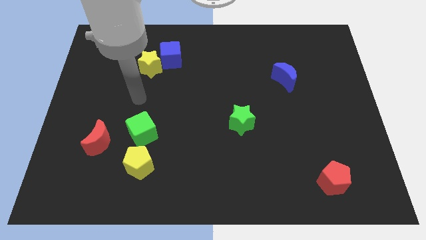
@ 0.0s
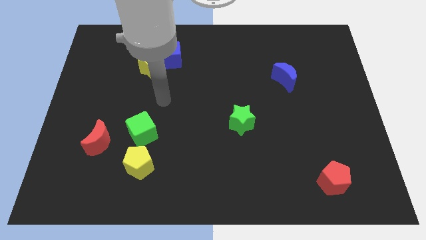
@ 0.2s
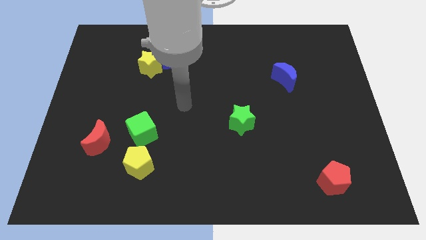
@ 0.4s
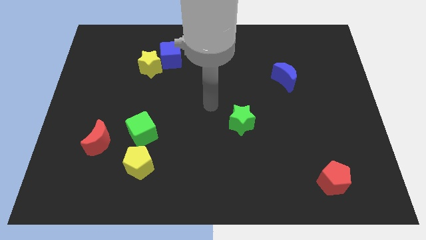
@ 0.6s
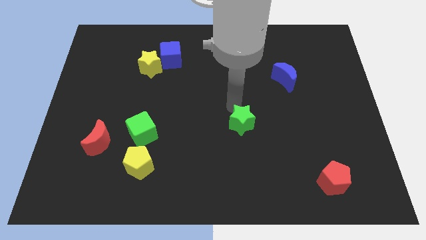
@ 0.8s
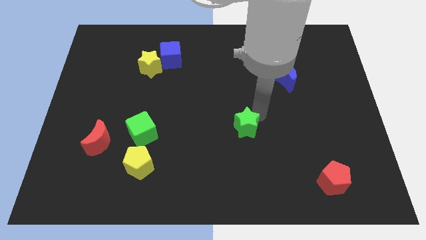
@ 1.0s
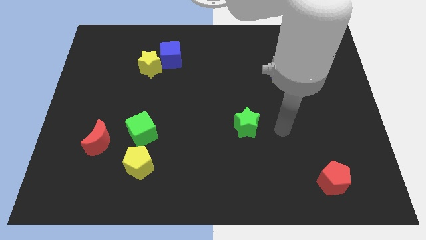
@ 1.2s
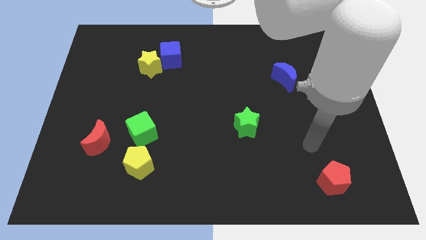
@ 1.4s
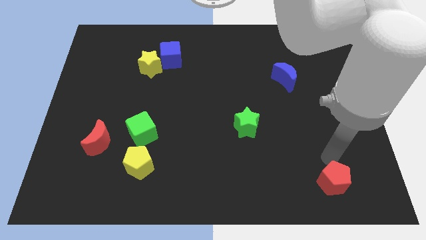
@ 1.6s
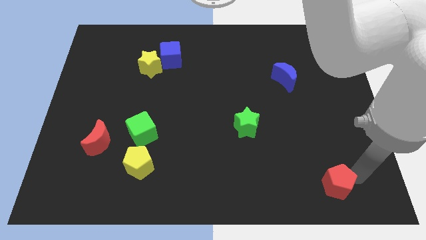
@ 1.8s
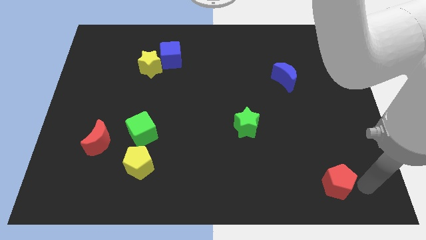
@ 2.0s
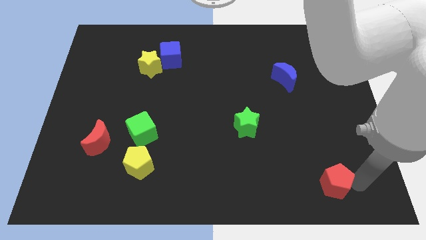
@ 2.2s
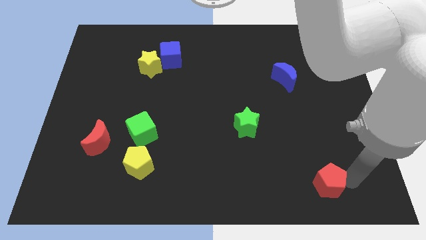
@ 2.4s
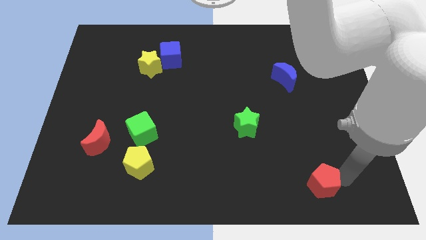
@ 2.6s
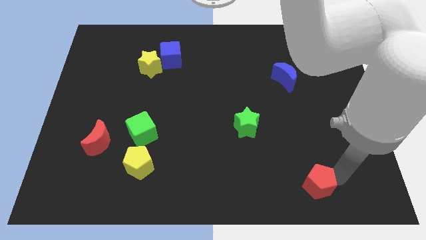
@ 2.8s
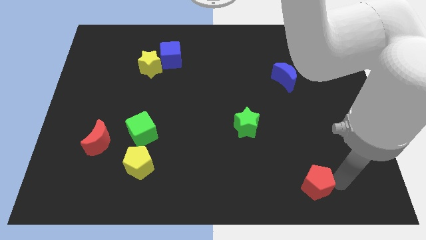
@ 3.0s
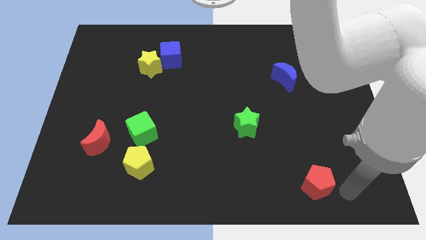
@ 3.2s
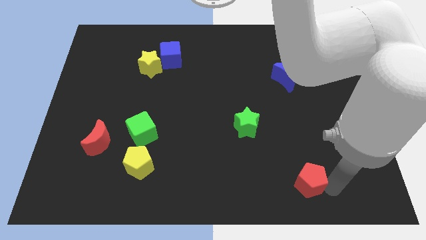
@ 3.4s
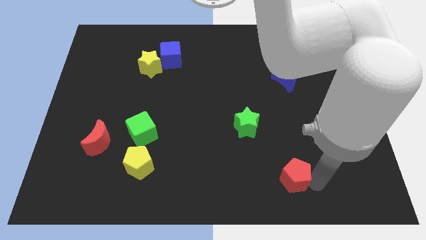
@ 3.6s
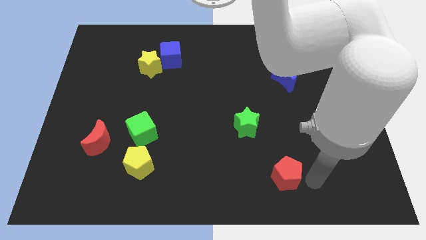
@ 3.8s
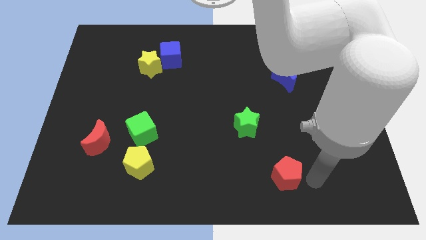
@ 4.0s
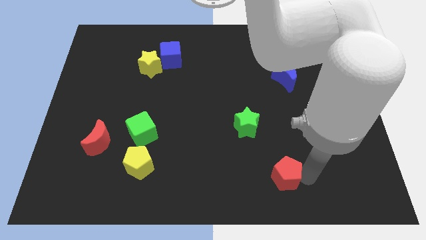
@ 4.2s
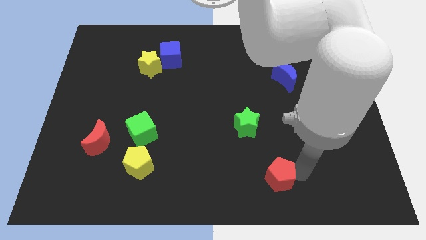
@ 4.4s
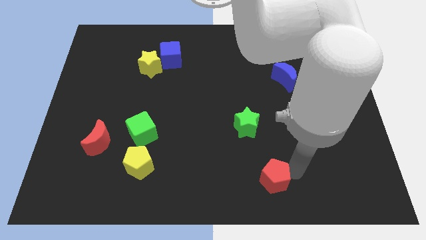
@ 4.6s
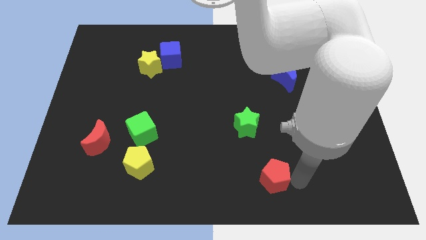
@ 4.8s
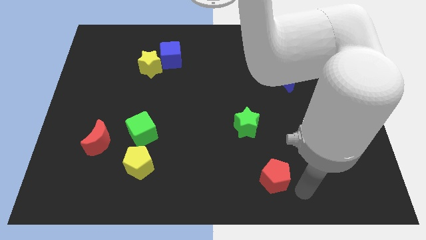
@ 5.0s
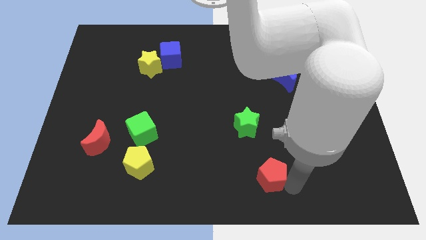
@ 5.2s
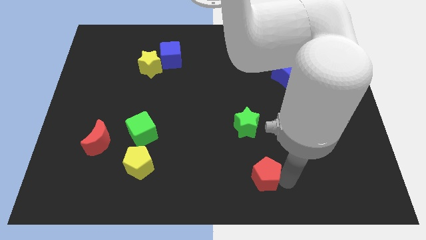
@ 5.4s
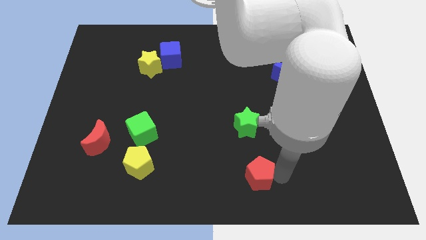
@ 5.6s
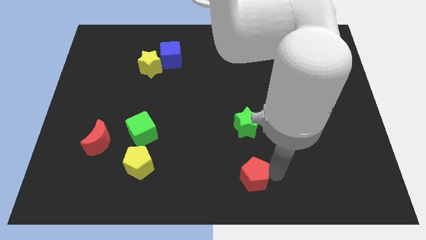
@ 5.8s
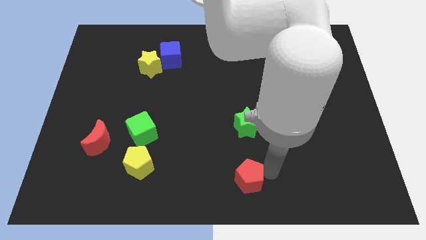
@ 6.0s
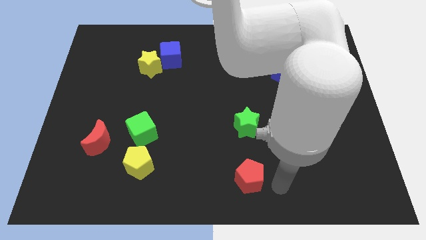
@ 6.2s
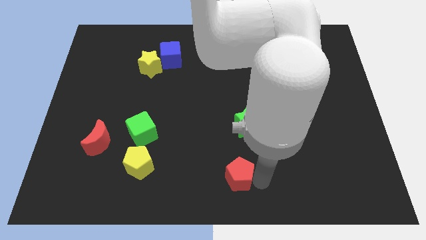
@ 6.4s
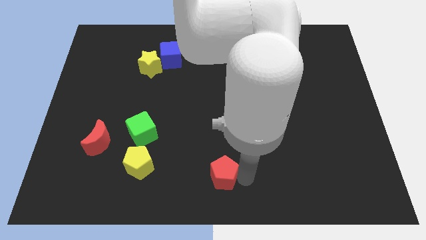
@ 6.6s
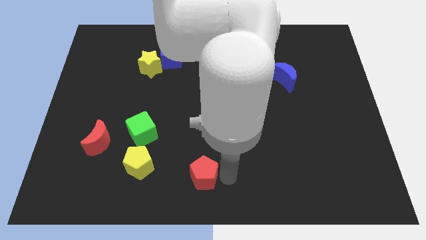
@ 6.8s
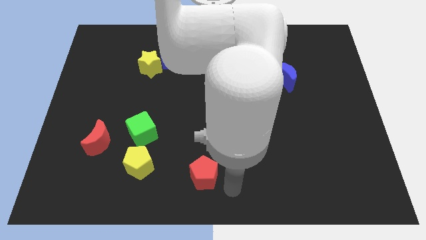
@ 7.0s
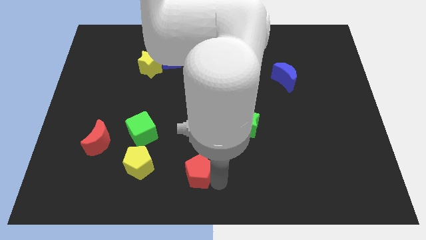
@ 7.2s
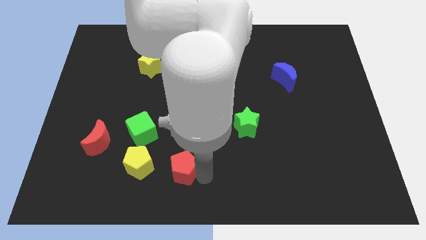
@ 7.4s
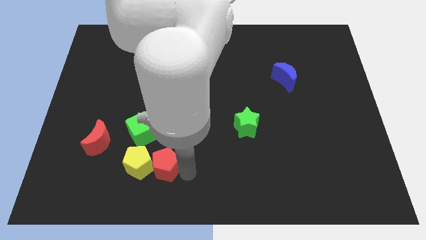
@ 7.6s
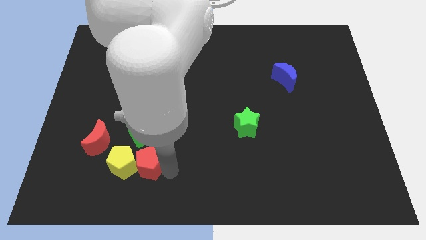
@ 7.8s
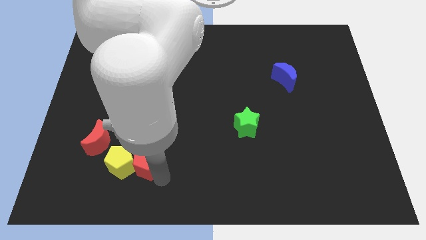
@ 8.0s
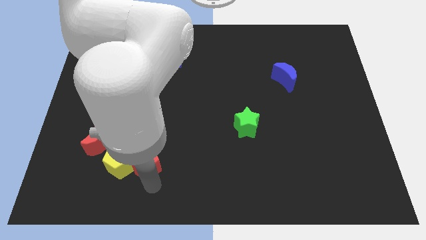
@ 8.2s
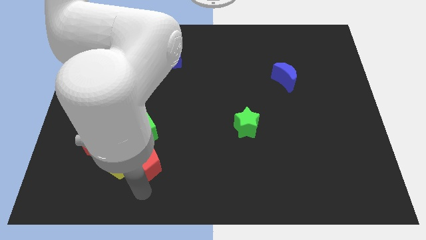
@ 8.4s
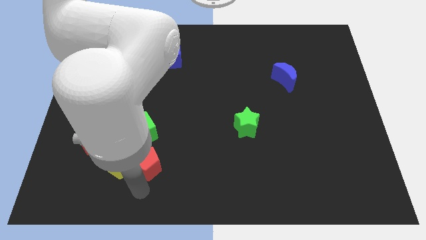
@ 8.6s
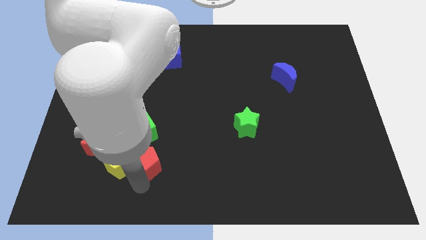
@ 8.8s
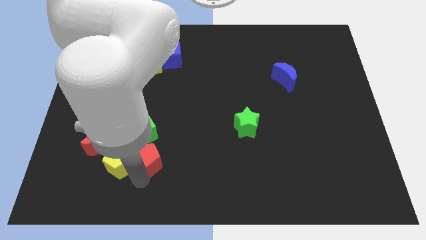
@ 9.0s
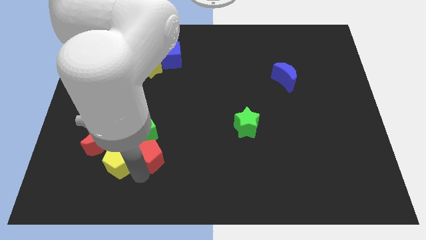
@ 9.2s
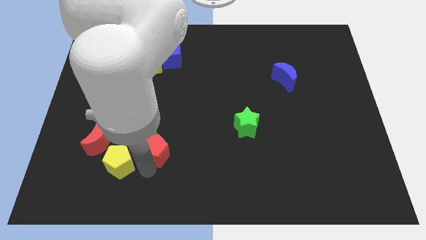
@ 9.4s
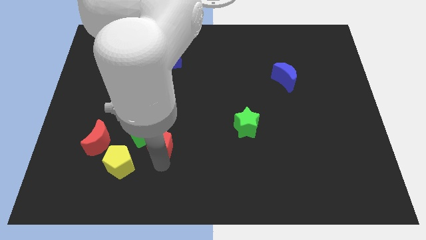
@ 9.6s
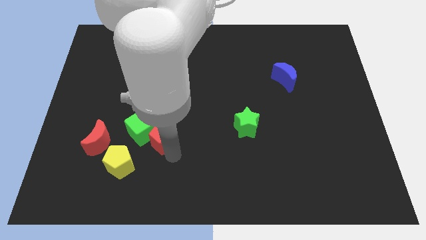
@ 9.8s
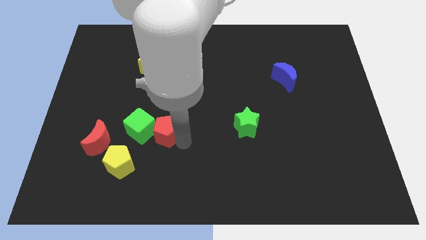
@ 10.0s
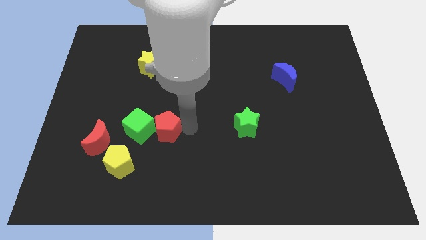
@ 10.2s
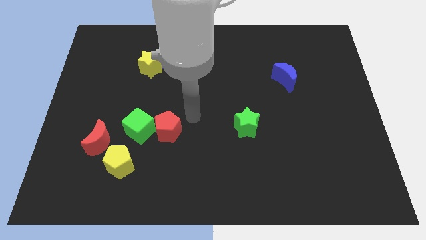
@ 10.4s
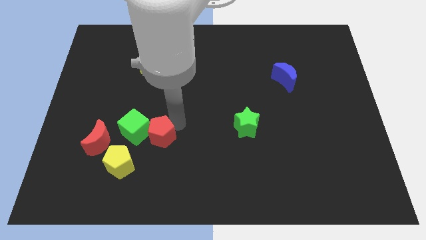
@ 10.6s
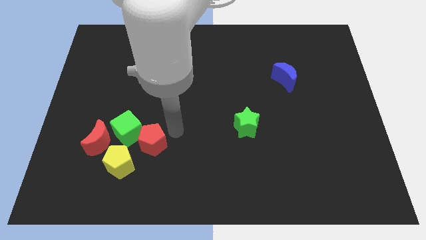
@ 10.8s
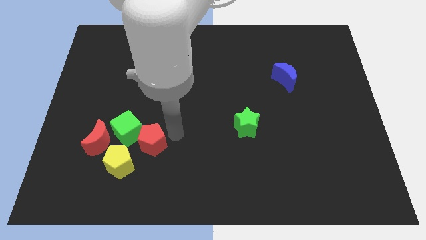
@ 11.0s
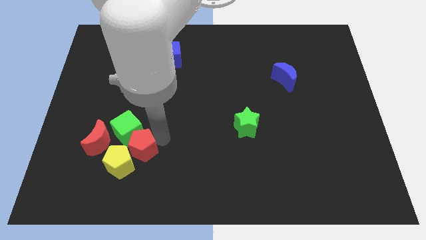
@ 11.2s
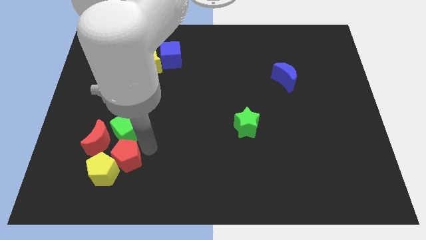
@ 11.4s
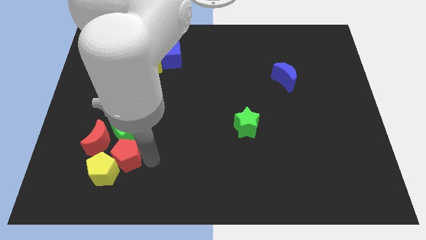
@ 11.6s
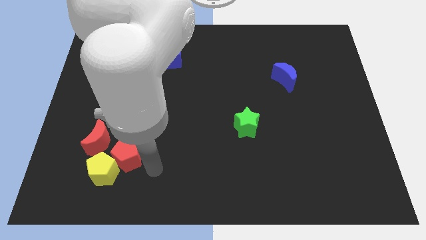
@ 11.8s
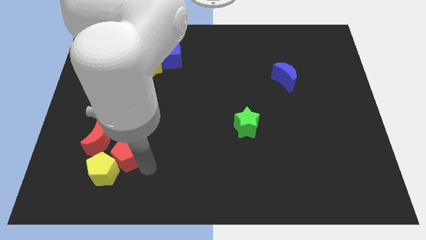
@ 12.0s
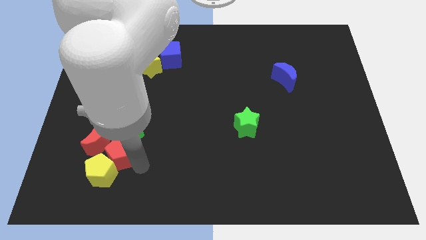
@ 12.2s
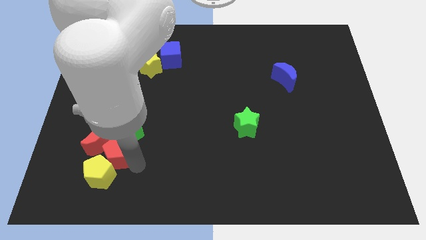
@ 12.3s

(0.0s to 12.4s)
move the red pentagon to the red moon

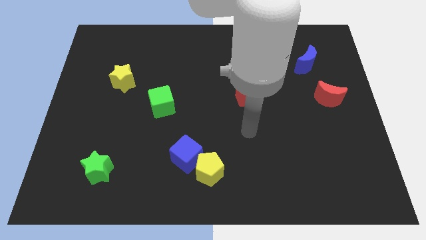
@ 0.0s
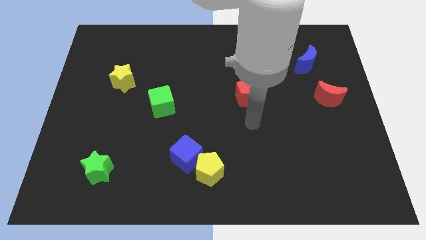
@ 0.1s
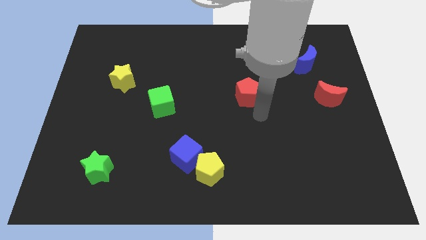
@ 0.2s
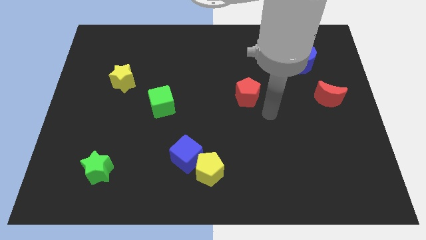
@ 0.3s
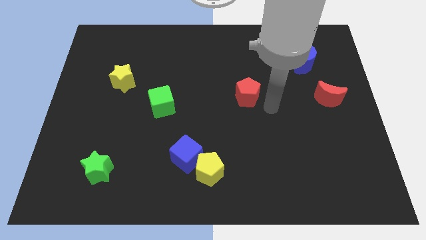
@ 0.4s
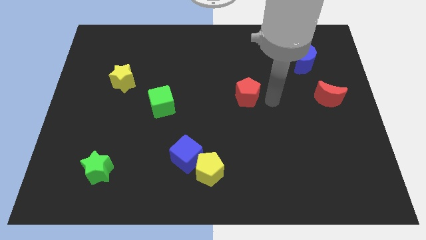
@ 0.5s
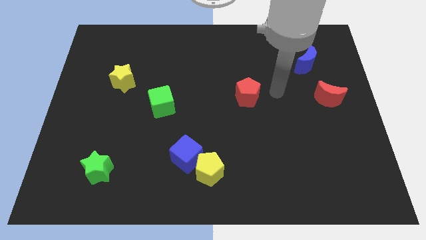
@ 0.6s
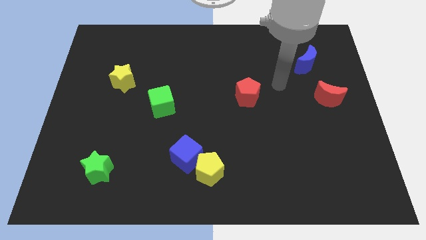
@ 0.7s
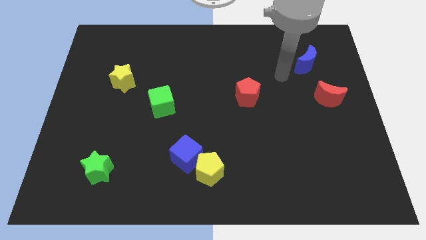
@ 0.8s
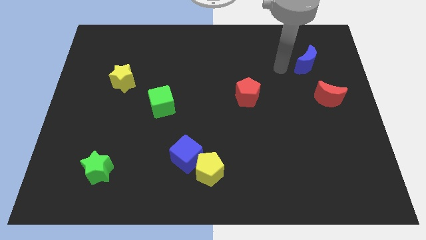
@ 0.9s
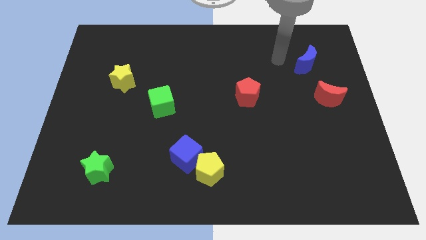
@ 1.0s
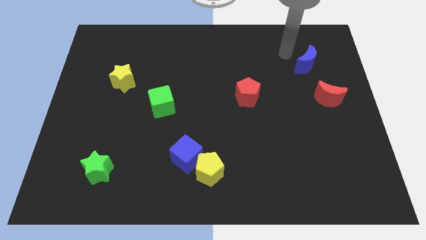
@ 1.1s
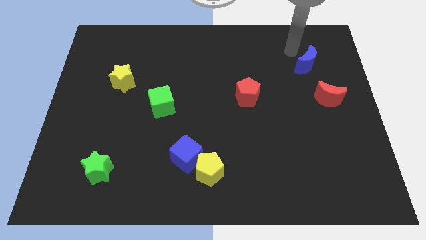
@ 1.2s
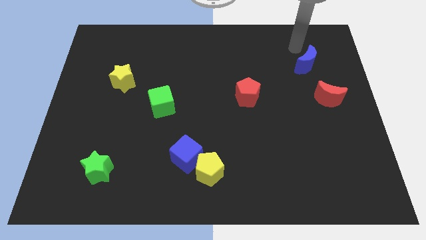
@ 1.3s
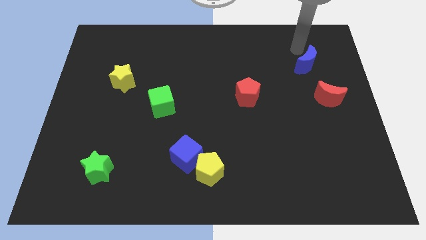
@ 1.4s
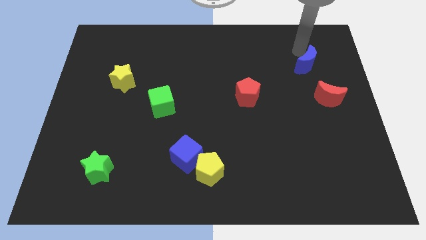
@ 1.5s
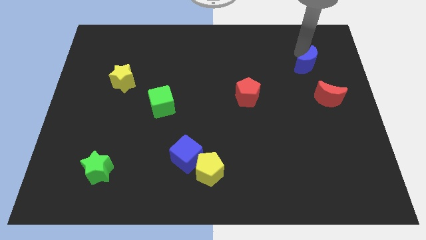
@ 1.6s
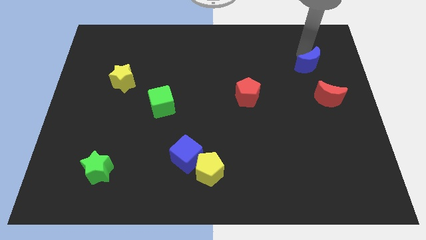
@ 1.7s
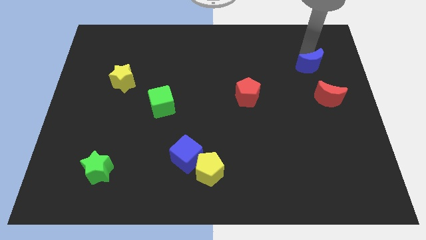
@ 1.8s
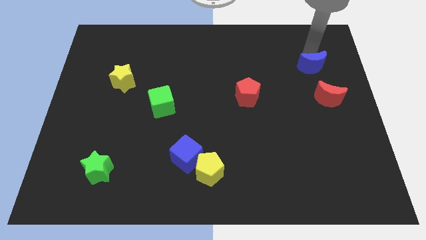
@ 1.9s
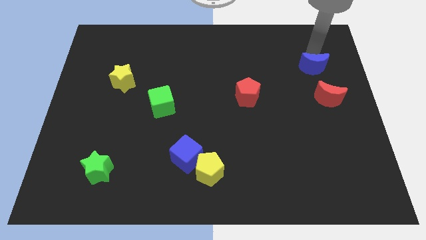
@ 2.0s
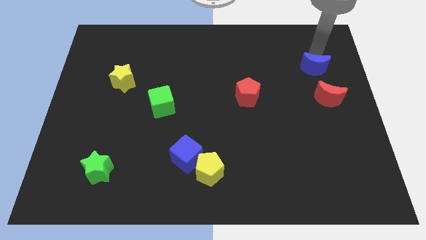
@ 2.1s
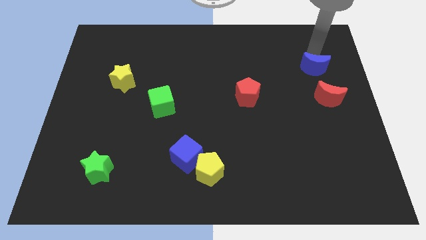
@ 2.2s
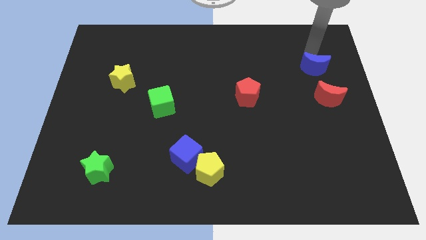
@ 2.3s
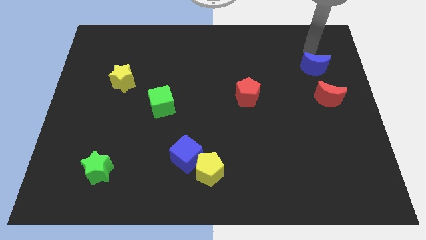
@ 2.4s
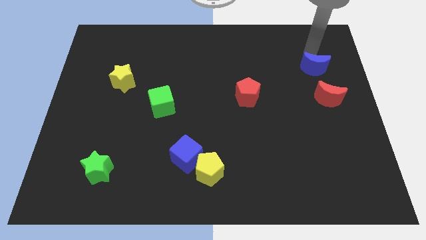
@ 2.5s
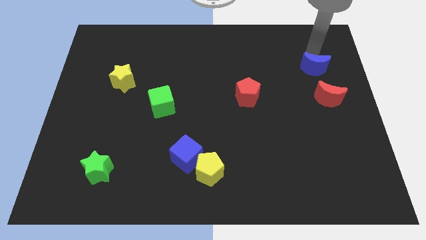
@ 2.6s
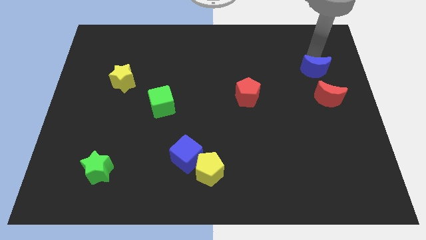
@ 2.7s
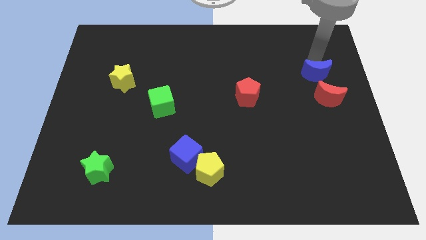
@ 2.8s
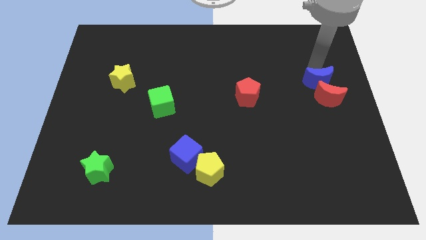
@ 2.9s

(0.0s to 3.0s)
put the blue moon next to the red moon
